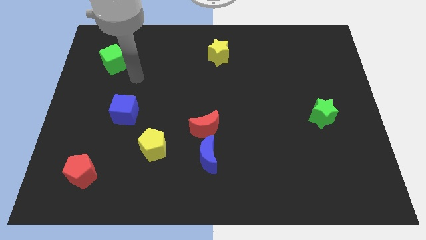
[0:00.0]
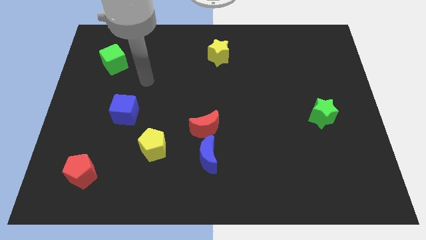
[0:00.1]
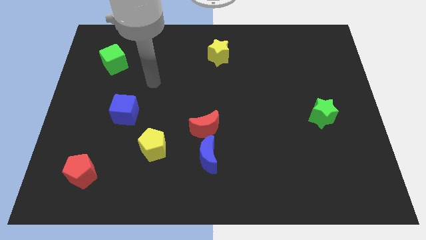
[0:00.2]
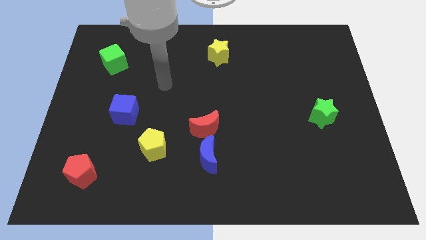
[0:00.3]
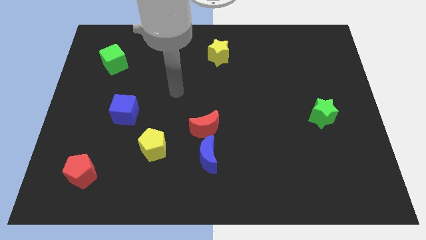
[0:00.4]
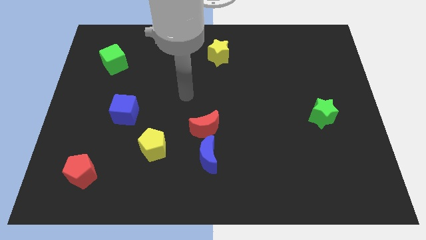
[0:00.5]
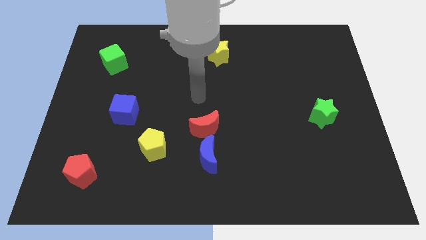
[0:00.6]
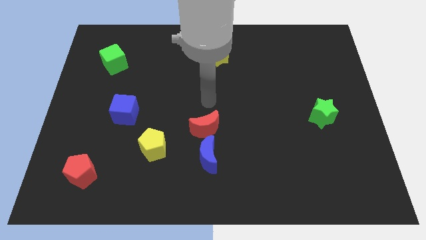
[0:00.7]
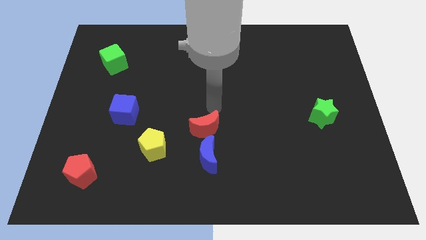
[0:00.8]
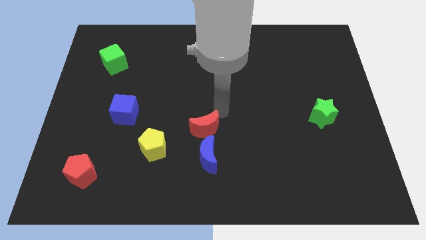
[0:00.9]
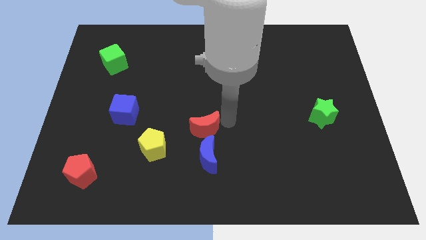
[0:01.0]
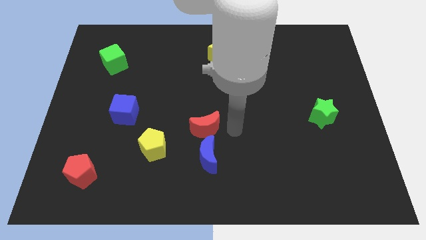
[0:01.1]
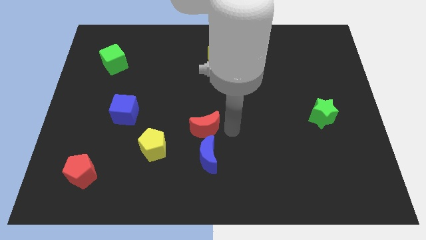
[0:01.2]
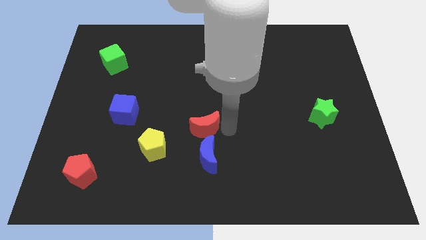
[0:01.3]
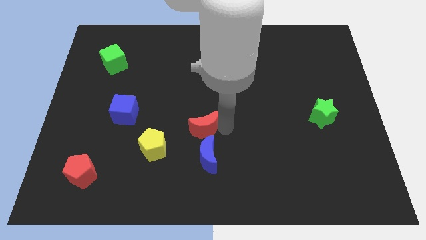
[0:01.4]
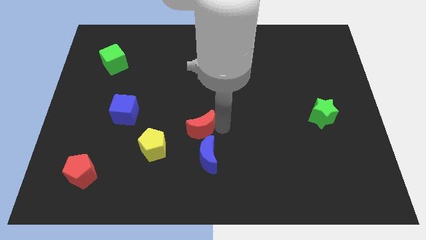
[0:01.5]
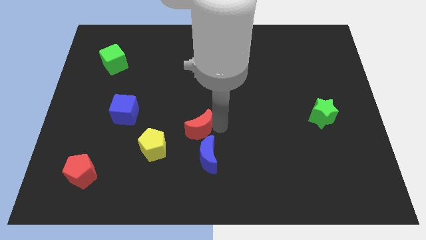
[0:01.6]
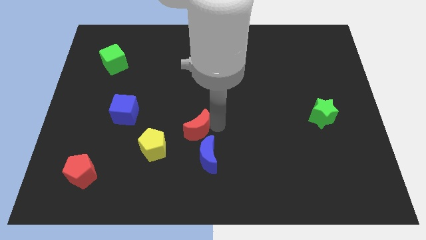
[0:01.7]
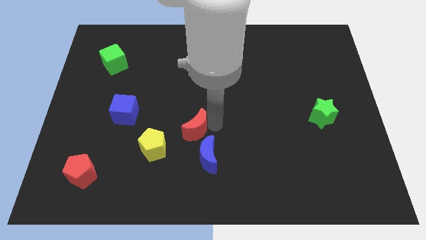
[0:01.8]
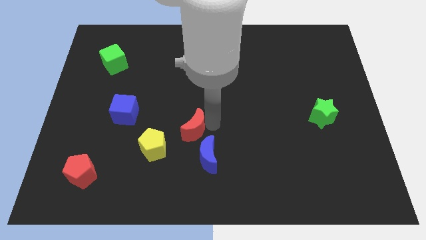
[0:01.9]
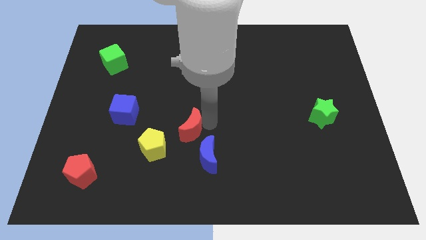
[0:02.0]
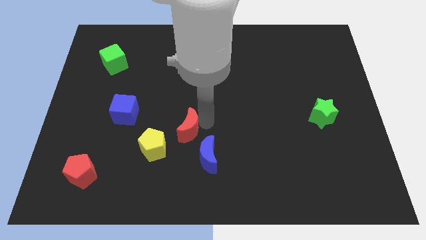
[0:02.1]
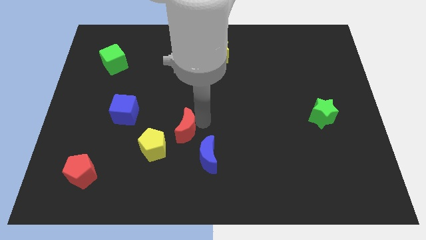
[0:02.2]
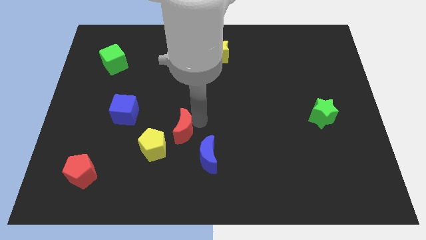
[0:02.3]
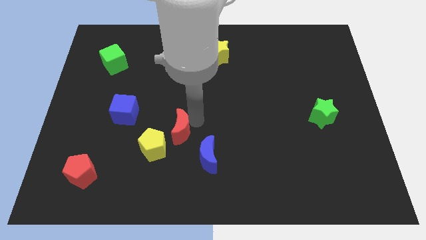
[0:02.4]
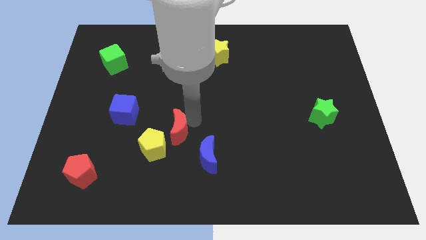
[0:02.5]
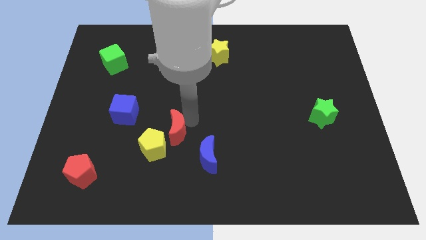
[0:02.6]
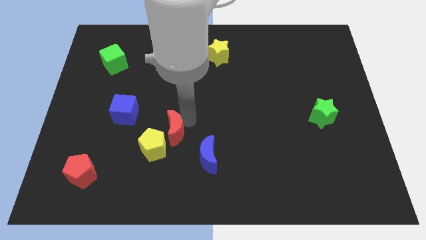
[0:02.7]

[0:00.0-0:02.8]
push the red moon slightly left

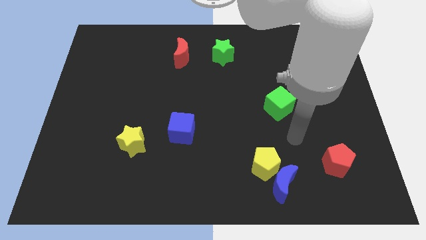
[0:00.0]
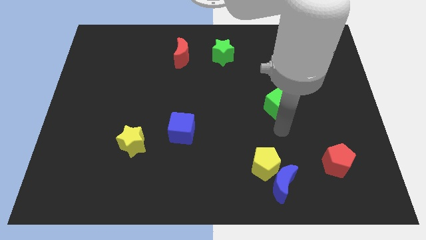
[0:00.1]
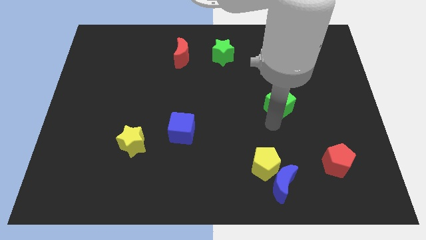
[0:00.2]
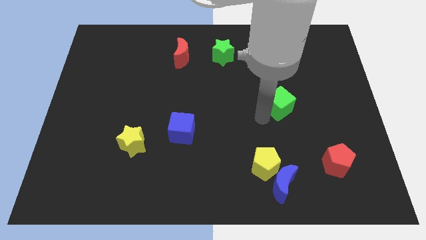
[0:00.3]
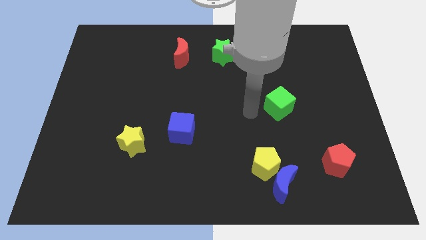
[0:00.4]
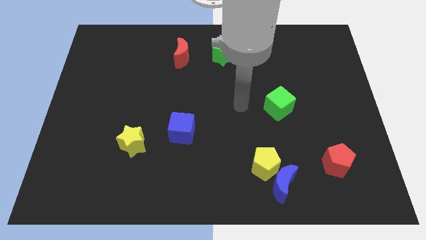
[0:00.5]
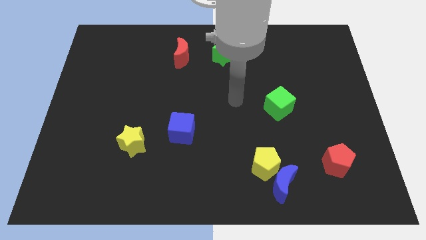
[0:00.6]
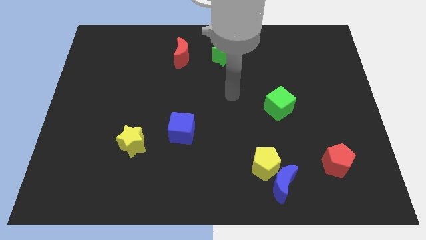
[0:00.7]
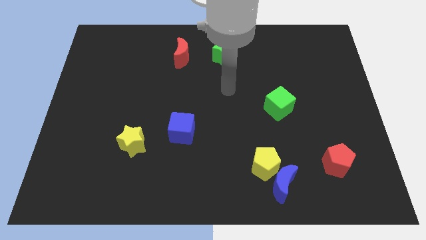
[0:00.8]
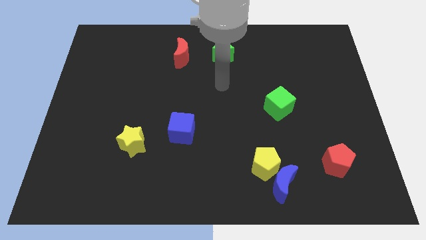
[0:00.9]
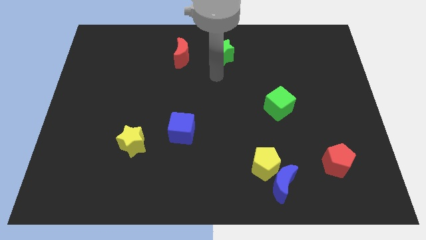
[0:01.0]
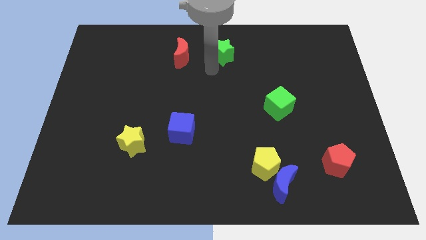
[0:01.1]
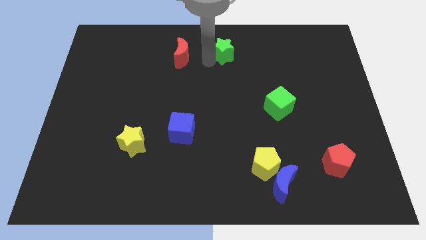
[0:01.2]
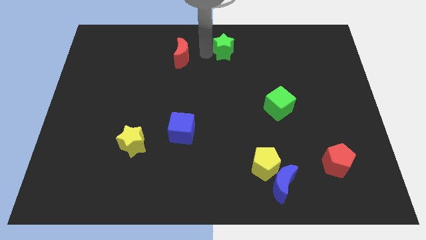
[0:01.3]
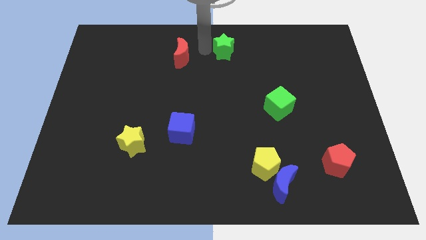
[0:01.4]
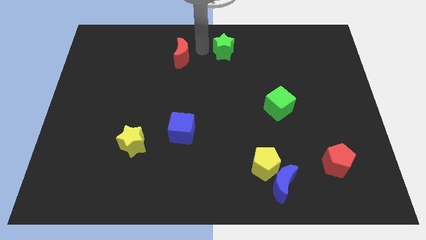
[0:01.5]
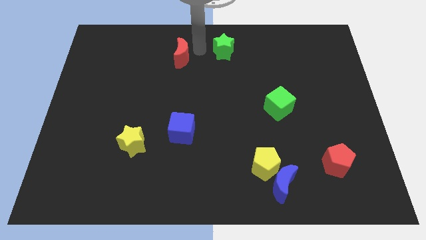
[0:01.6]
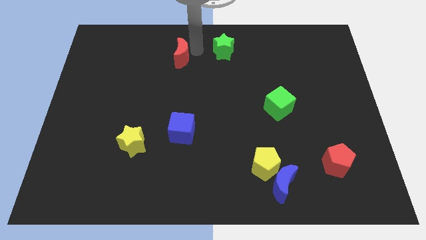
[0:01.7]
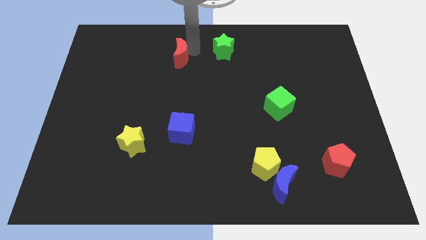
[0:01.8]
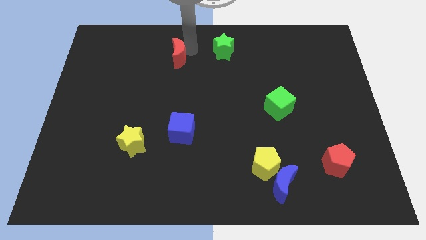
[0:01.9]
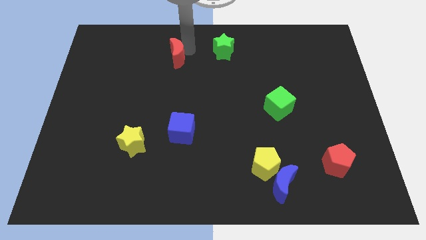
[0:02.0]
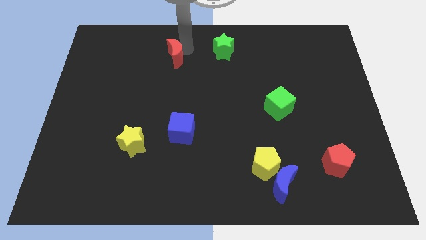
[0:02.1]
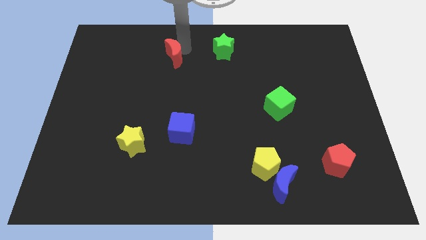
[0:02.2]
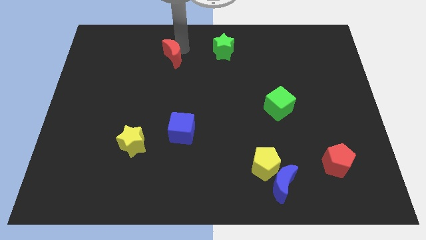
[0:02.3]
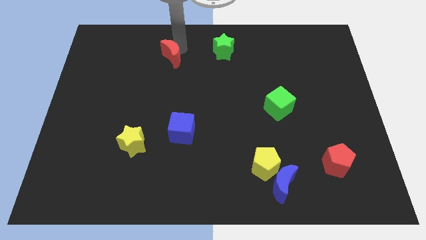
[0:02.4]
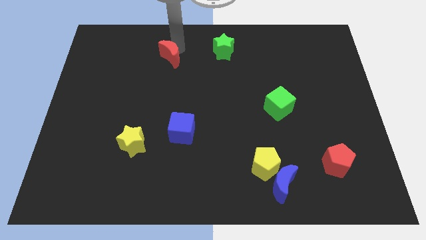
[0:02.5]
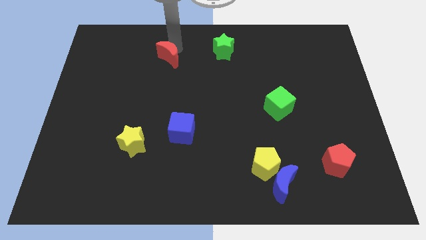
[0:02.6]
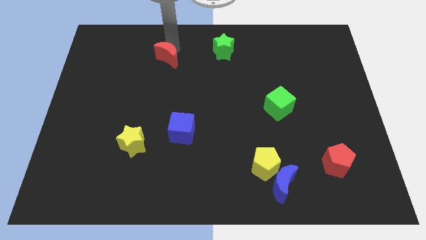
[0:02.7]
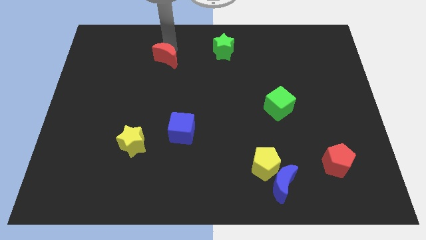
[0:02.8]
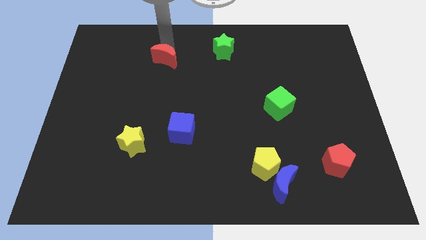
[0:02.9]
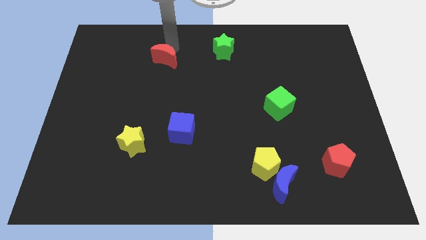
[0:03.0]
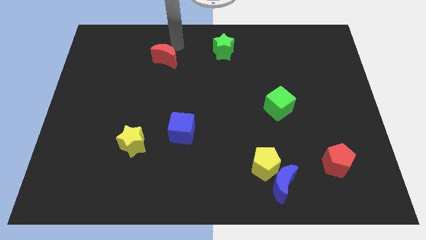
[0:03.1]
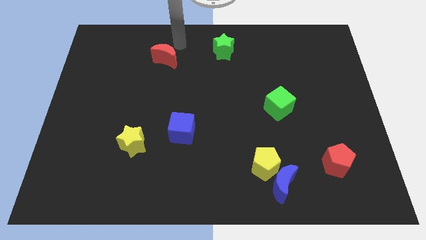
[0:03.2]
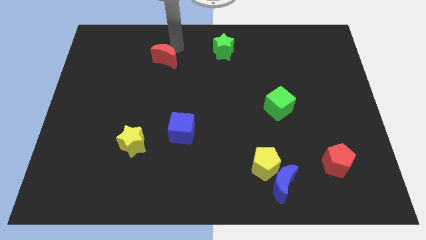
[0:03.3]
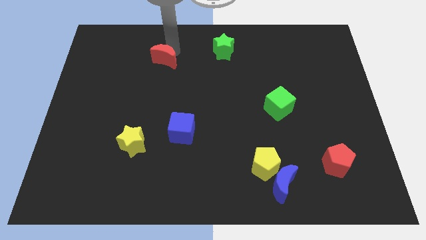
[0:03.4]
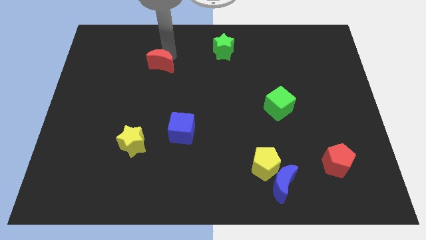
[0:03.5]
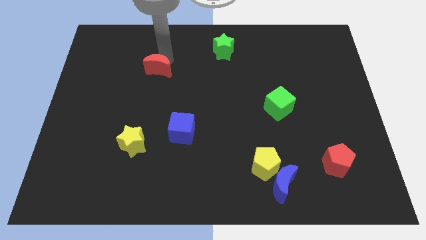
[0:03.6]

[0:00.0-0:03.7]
move the red moon downwards and then to the left a little

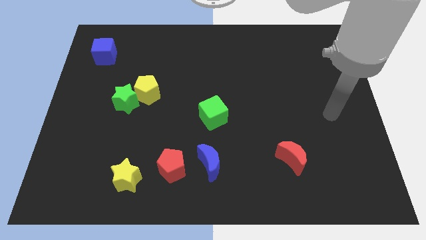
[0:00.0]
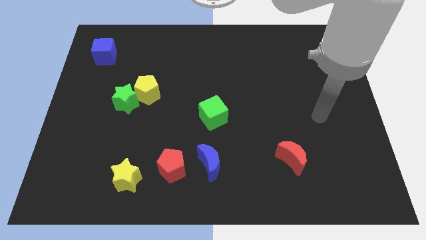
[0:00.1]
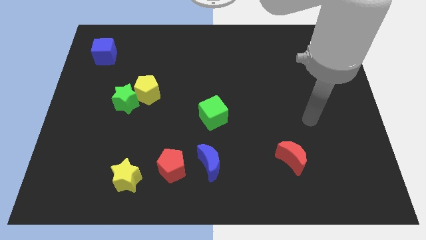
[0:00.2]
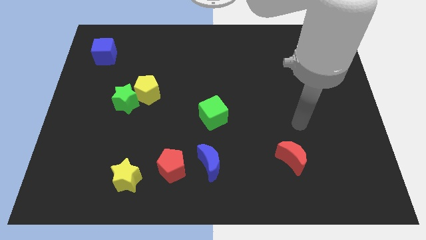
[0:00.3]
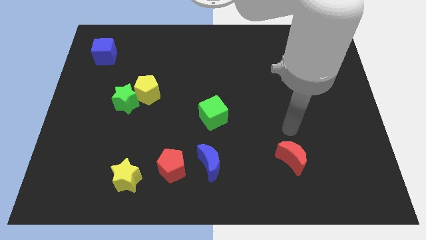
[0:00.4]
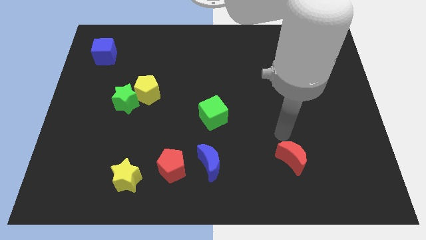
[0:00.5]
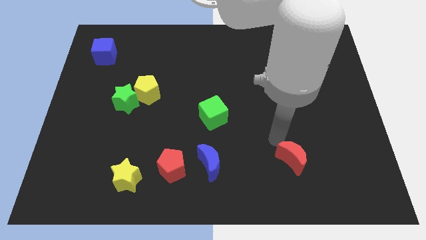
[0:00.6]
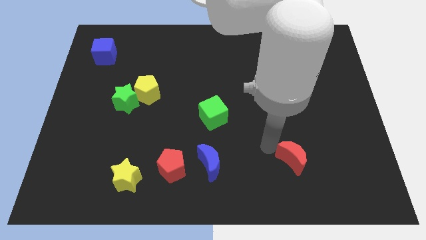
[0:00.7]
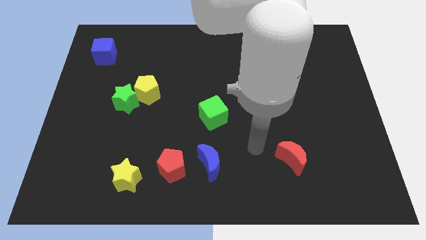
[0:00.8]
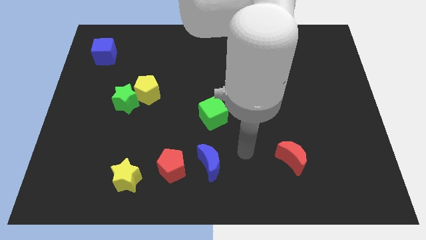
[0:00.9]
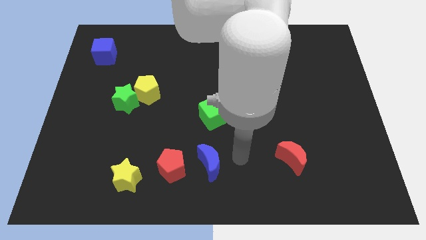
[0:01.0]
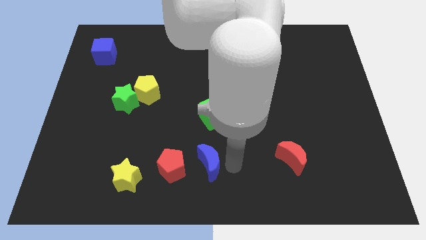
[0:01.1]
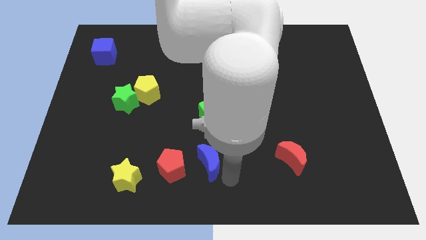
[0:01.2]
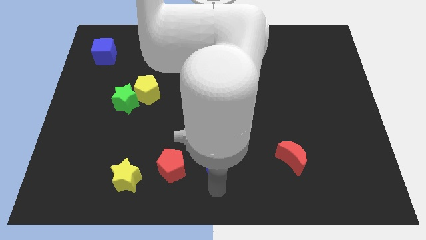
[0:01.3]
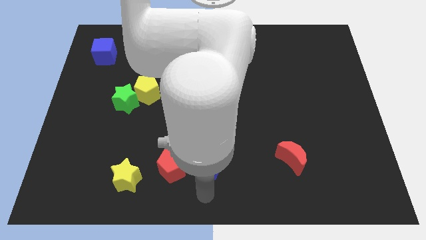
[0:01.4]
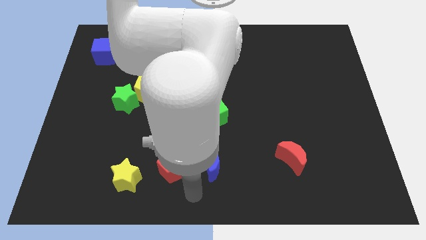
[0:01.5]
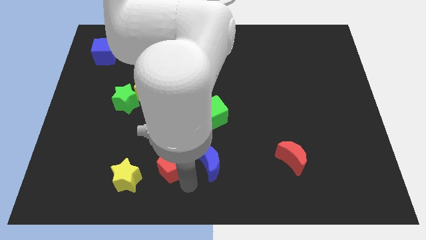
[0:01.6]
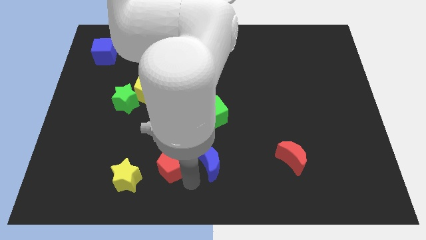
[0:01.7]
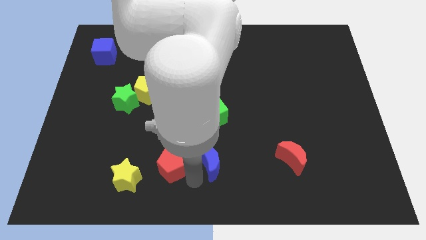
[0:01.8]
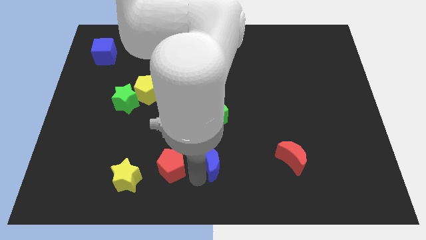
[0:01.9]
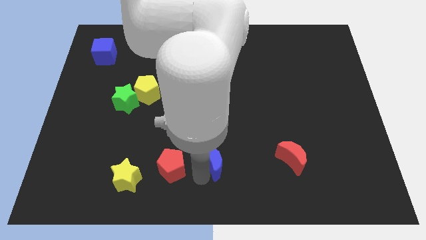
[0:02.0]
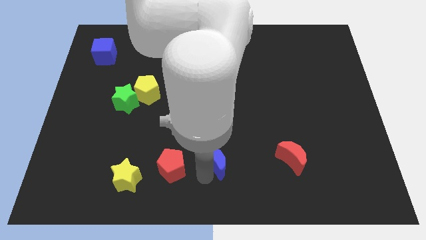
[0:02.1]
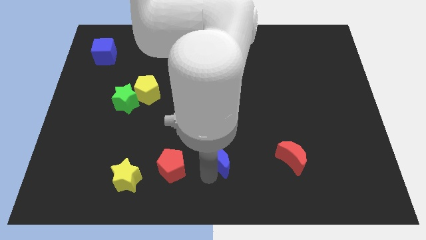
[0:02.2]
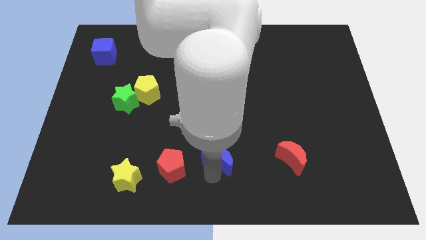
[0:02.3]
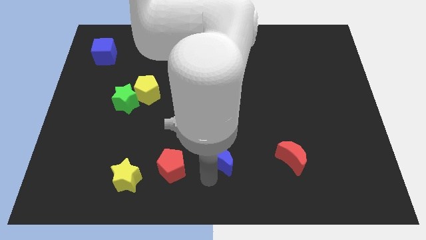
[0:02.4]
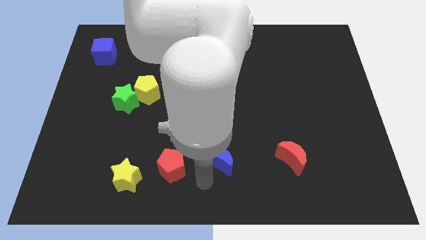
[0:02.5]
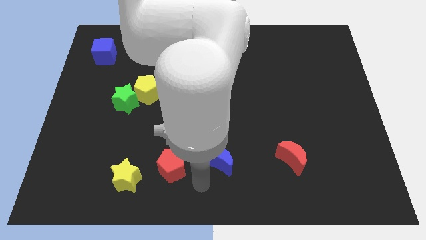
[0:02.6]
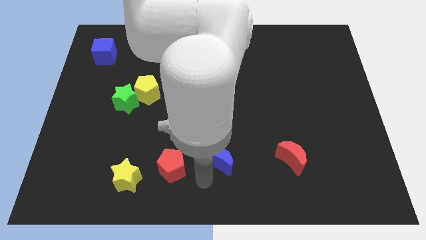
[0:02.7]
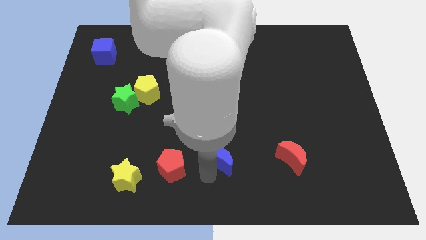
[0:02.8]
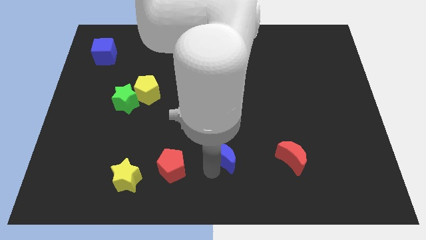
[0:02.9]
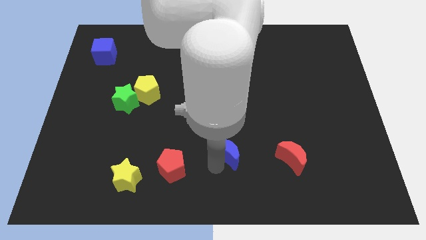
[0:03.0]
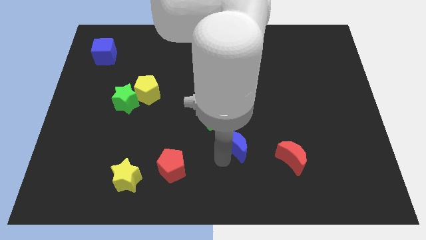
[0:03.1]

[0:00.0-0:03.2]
slightly slide the blue moon up and then to the right
